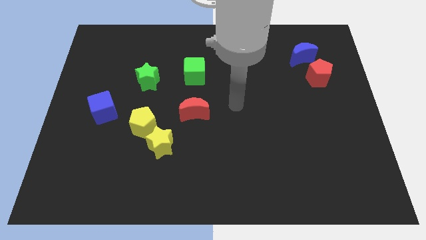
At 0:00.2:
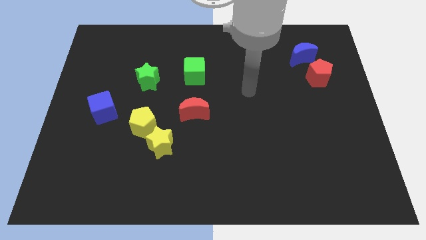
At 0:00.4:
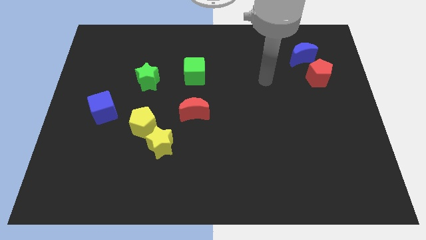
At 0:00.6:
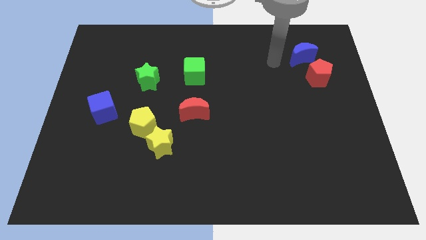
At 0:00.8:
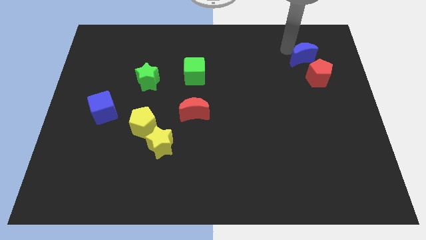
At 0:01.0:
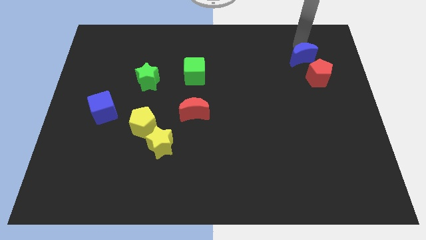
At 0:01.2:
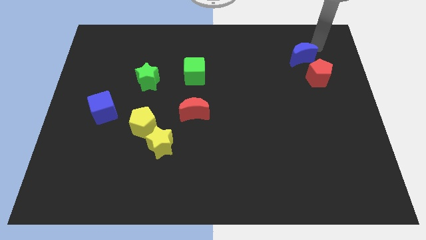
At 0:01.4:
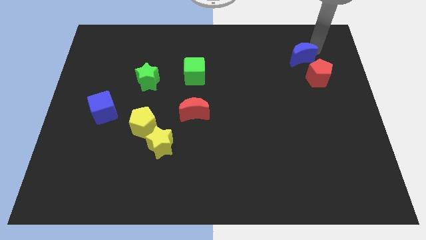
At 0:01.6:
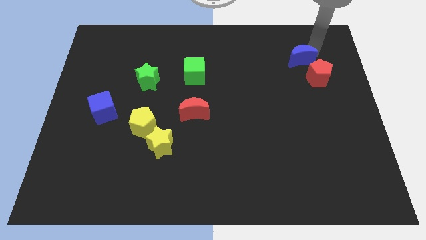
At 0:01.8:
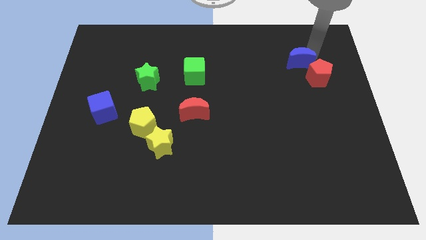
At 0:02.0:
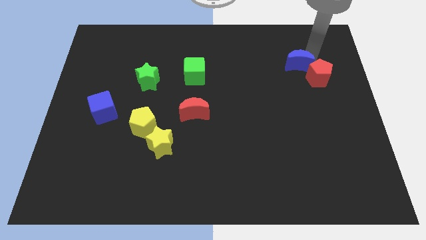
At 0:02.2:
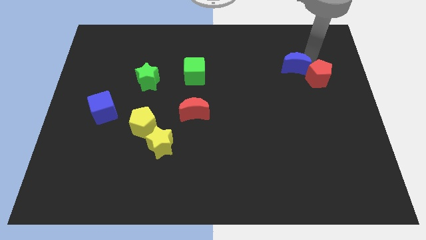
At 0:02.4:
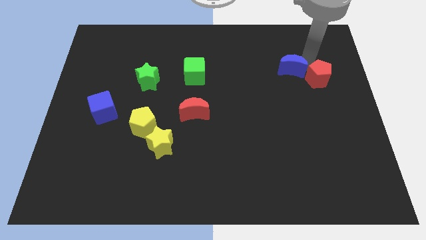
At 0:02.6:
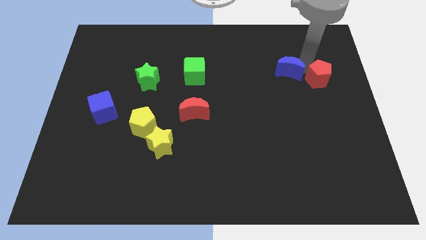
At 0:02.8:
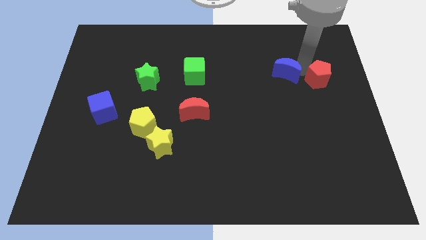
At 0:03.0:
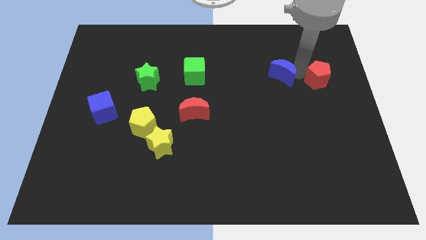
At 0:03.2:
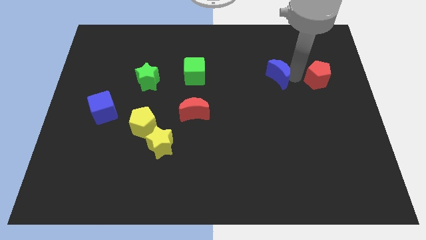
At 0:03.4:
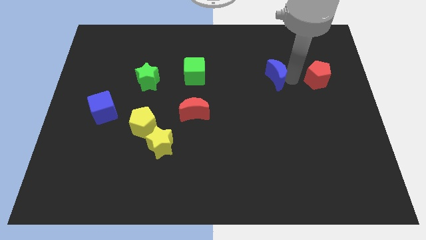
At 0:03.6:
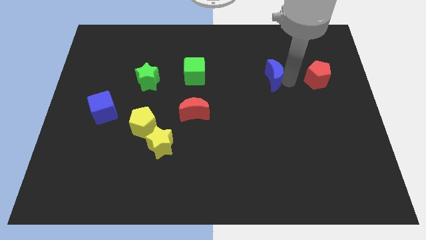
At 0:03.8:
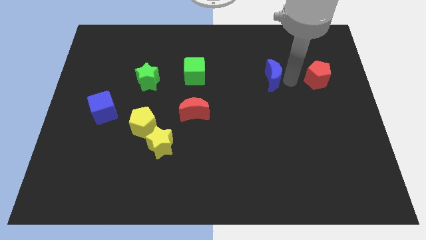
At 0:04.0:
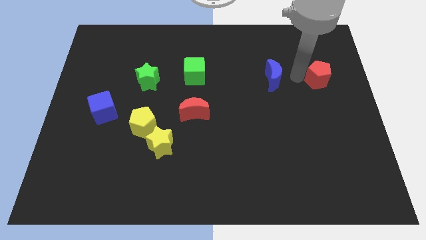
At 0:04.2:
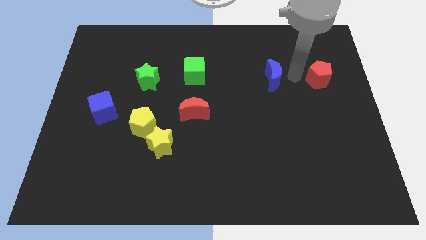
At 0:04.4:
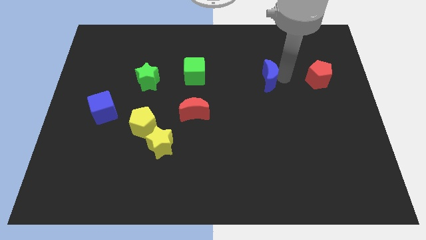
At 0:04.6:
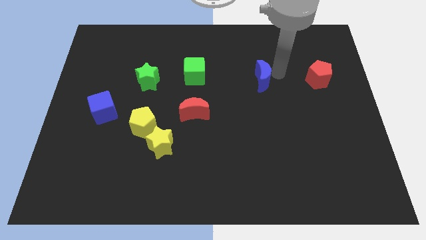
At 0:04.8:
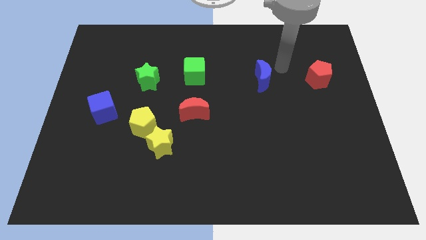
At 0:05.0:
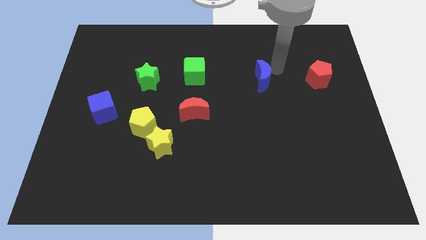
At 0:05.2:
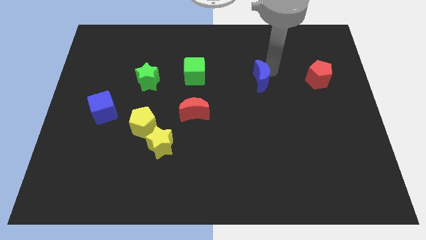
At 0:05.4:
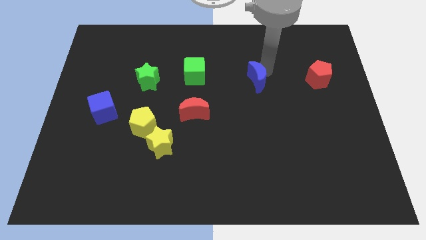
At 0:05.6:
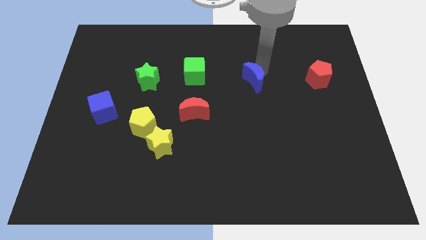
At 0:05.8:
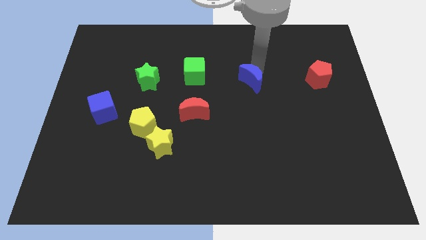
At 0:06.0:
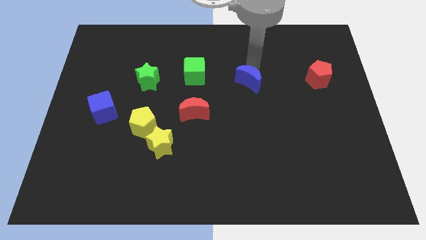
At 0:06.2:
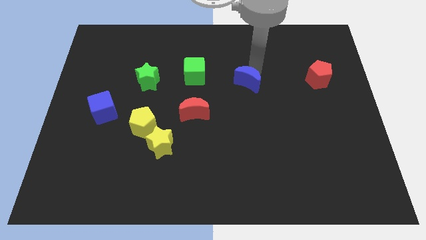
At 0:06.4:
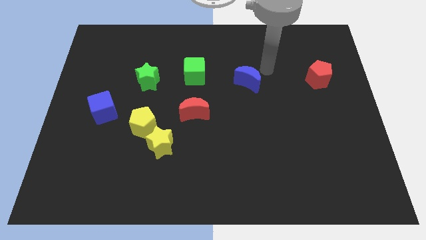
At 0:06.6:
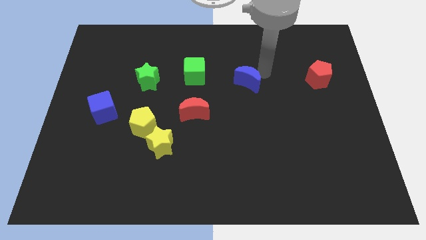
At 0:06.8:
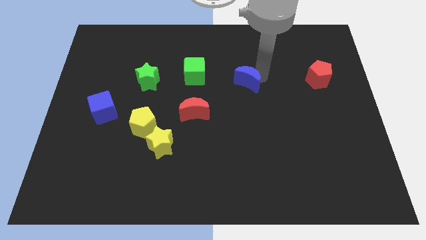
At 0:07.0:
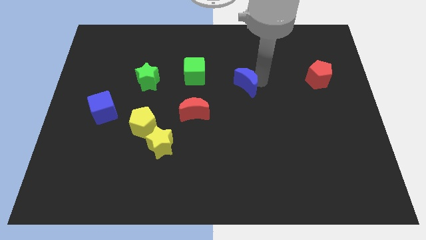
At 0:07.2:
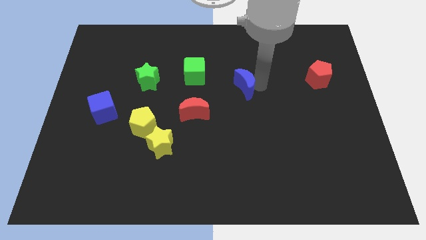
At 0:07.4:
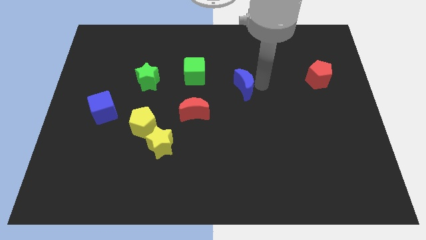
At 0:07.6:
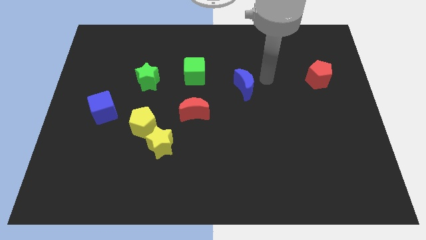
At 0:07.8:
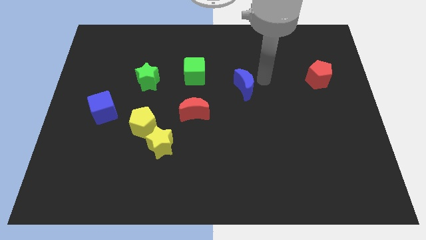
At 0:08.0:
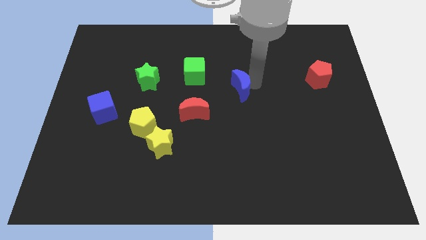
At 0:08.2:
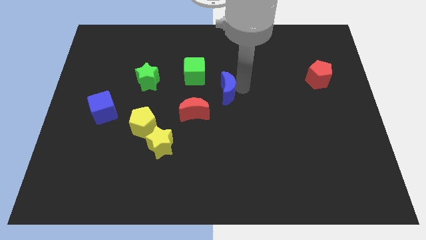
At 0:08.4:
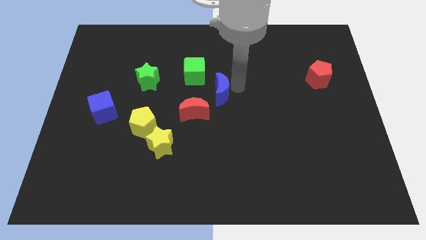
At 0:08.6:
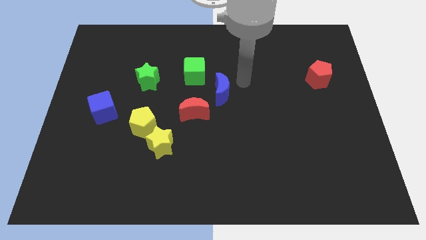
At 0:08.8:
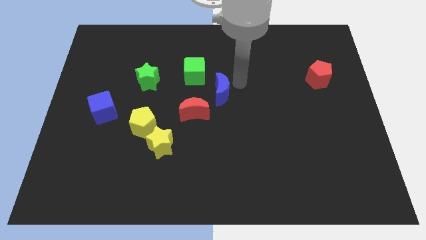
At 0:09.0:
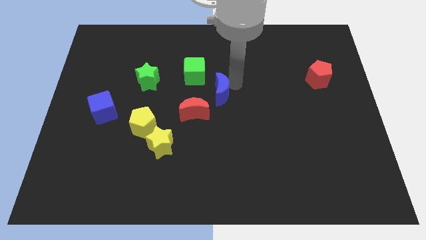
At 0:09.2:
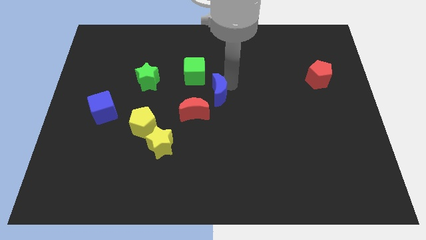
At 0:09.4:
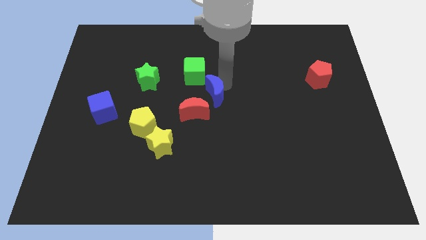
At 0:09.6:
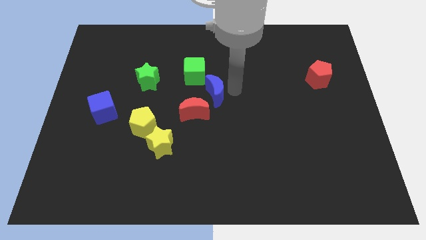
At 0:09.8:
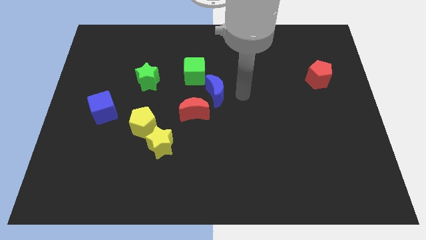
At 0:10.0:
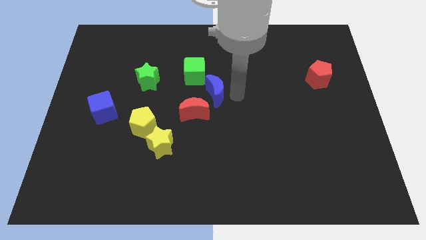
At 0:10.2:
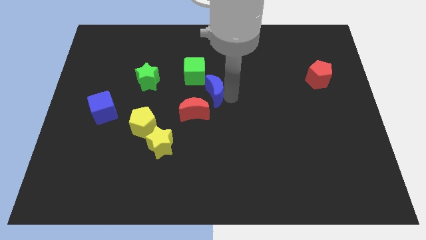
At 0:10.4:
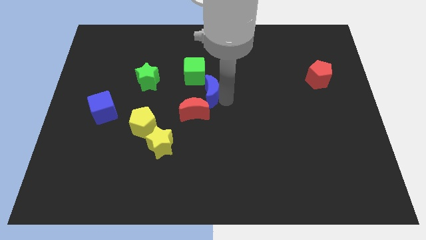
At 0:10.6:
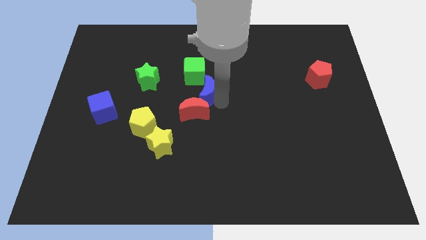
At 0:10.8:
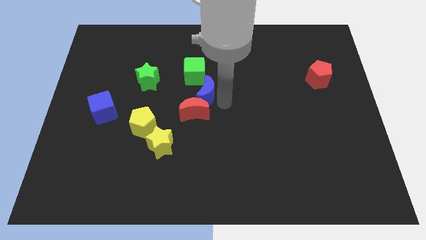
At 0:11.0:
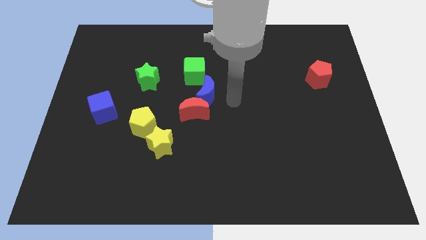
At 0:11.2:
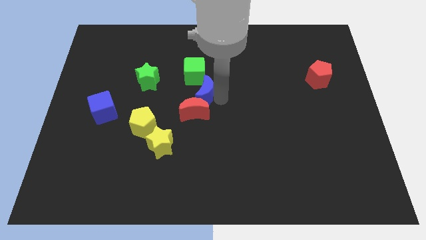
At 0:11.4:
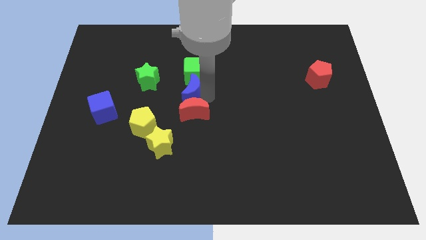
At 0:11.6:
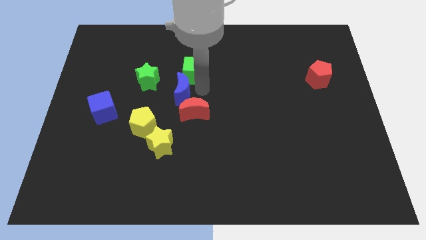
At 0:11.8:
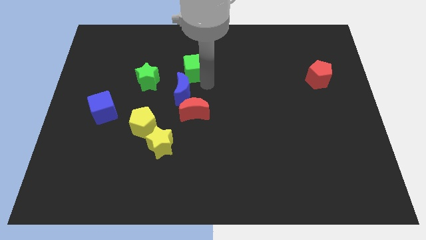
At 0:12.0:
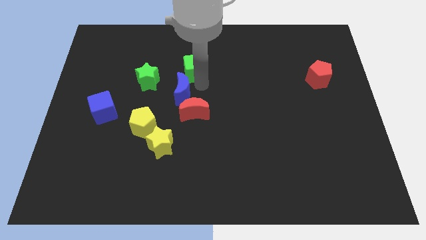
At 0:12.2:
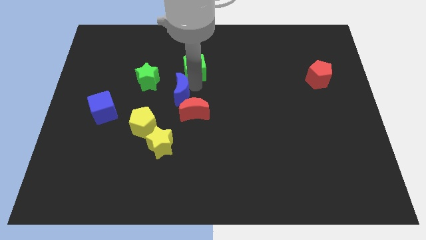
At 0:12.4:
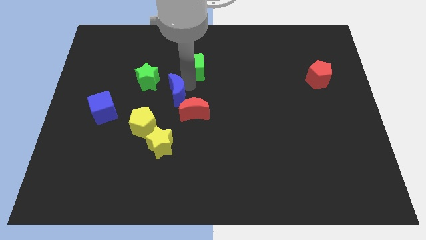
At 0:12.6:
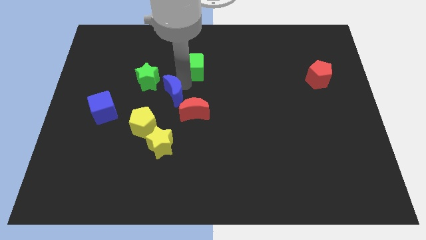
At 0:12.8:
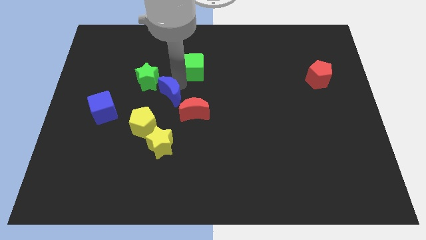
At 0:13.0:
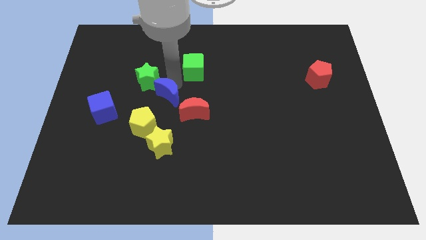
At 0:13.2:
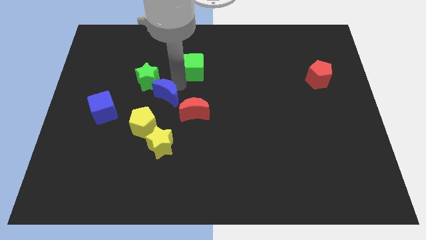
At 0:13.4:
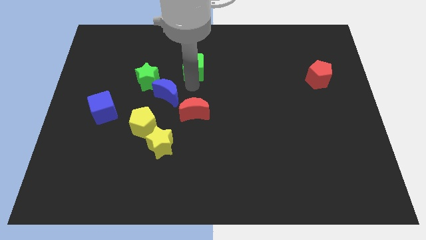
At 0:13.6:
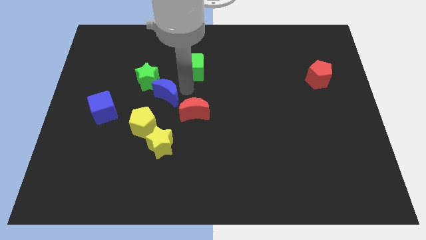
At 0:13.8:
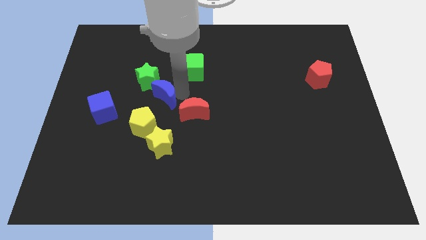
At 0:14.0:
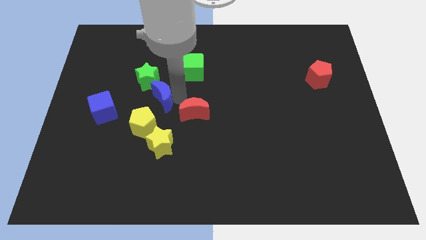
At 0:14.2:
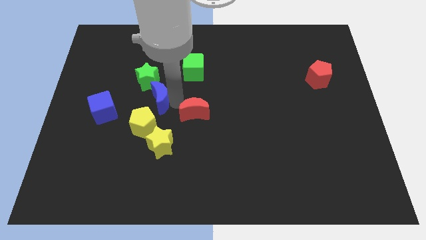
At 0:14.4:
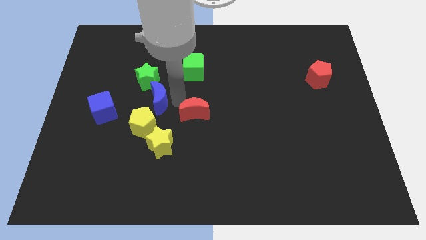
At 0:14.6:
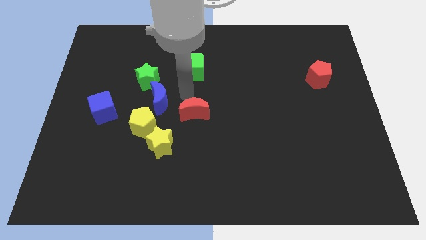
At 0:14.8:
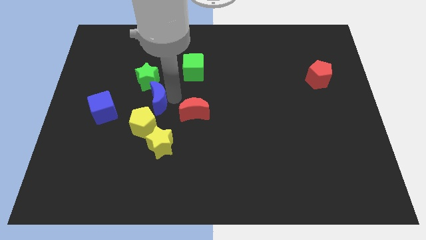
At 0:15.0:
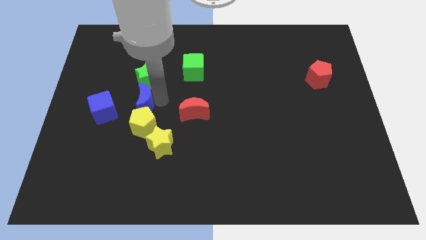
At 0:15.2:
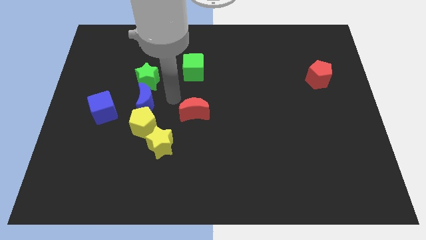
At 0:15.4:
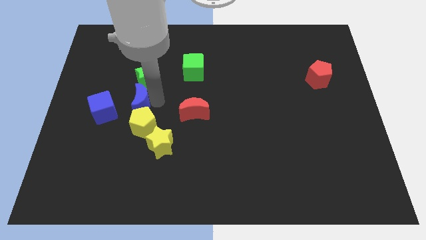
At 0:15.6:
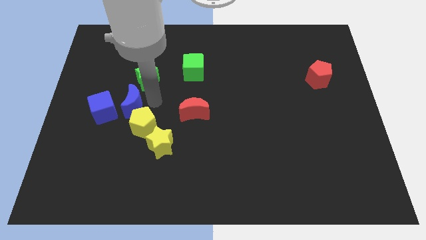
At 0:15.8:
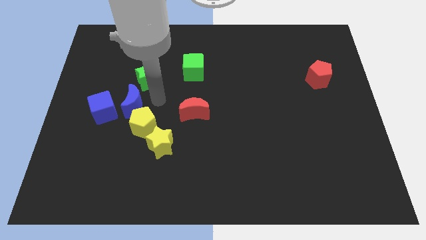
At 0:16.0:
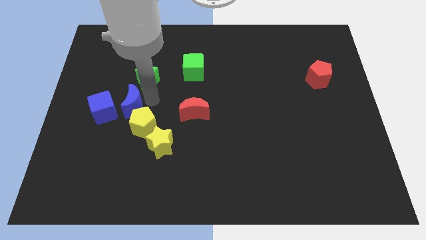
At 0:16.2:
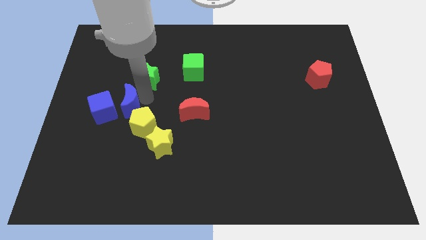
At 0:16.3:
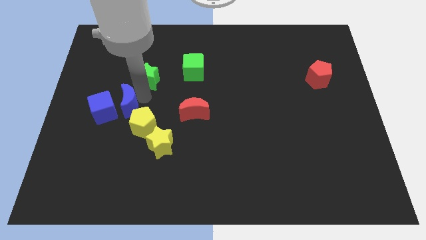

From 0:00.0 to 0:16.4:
put the blue moon next to the blue cube
